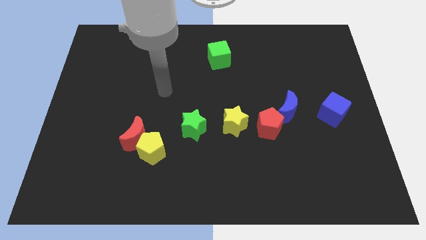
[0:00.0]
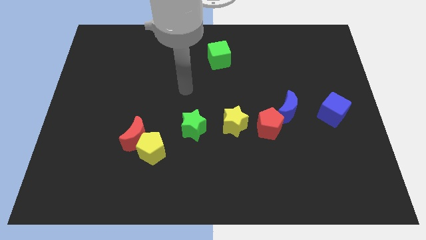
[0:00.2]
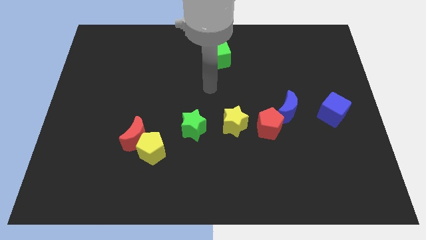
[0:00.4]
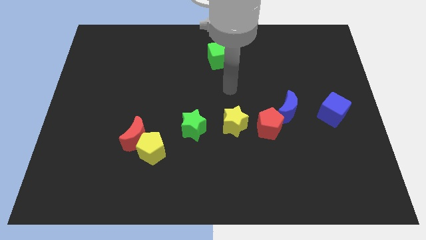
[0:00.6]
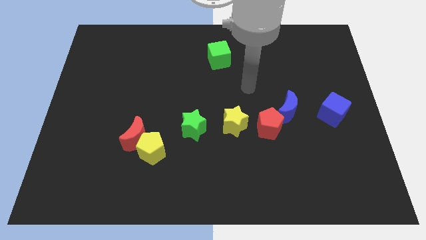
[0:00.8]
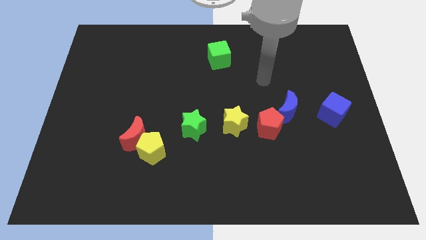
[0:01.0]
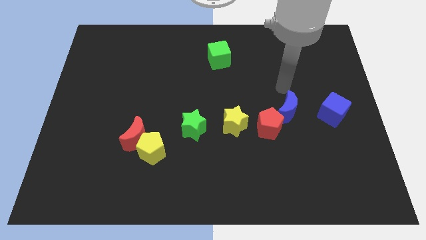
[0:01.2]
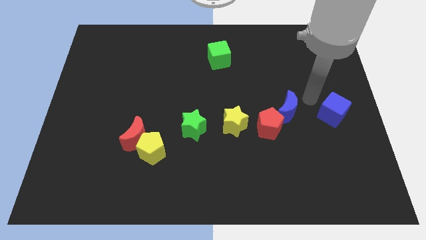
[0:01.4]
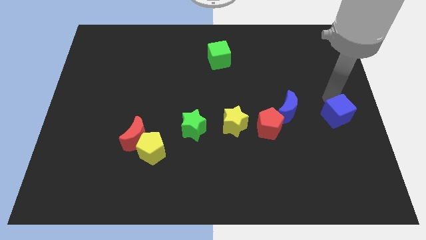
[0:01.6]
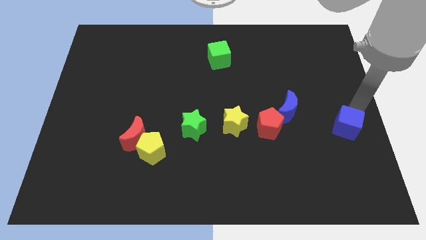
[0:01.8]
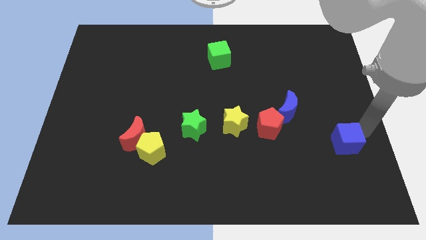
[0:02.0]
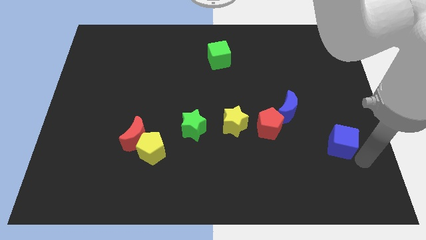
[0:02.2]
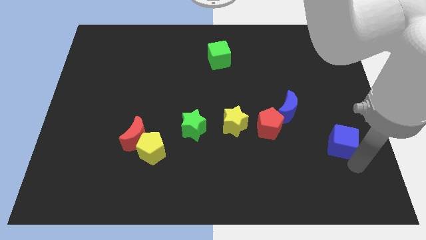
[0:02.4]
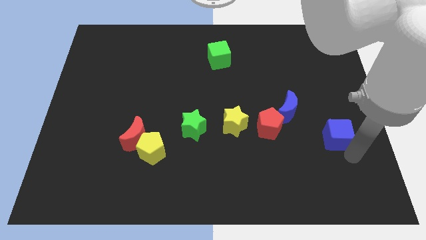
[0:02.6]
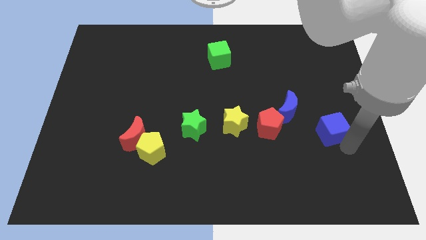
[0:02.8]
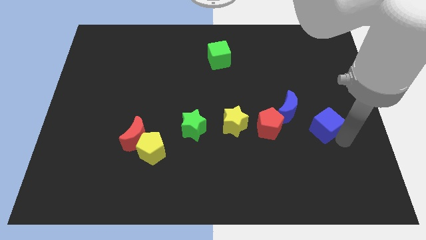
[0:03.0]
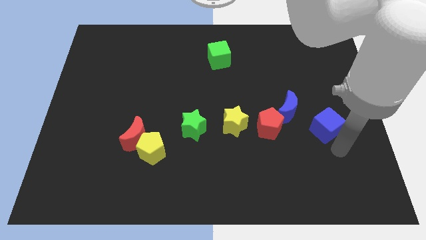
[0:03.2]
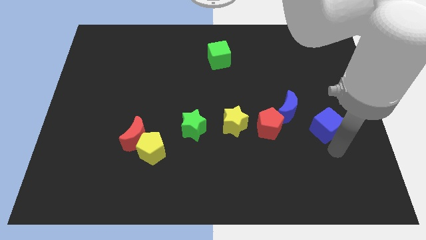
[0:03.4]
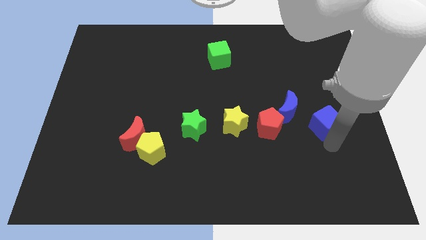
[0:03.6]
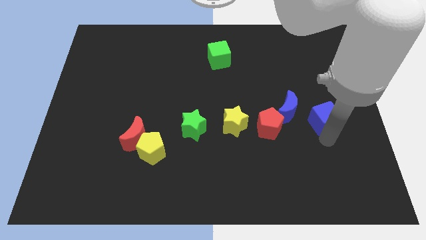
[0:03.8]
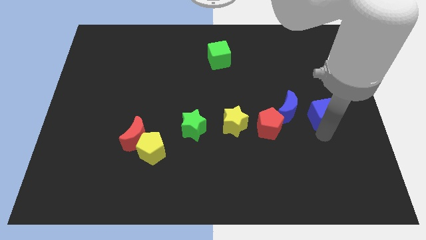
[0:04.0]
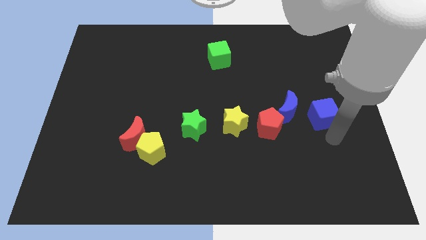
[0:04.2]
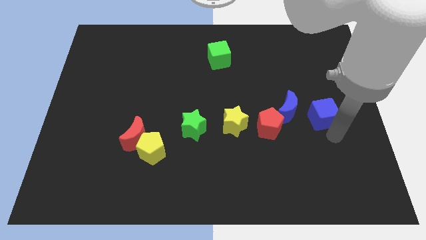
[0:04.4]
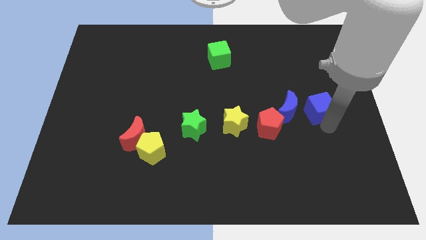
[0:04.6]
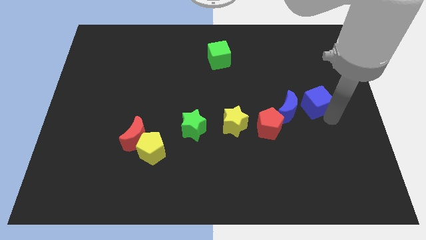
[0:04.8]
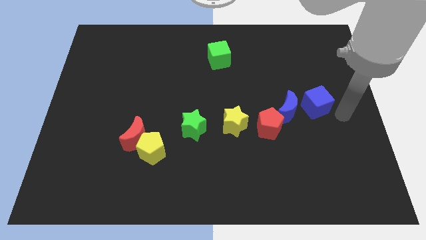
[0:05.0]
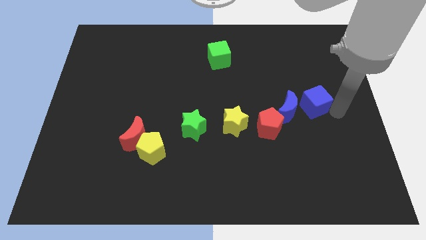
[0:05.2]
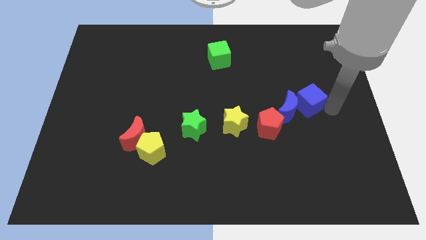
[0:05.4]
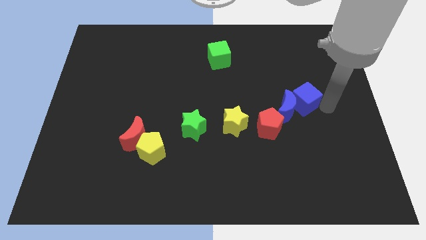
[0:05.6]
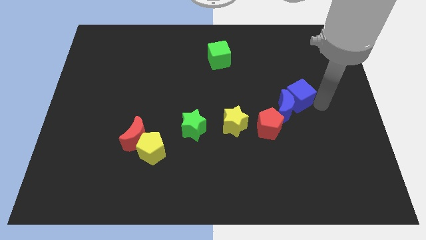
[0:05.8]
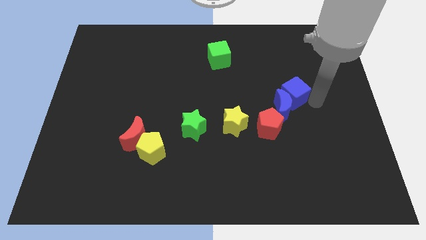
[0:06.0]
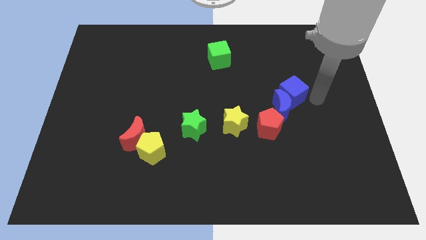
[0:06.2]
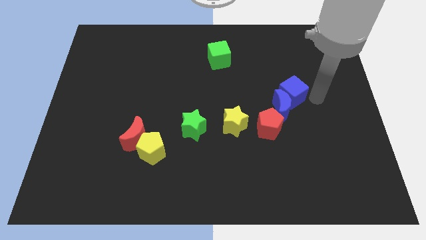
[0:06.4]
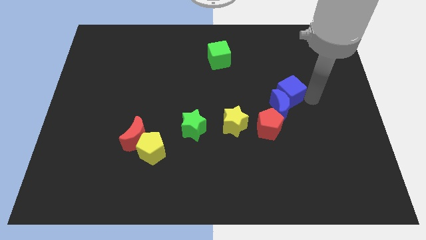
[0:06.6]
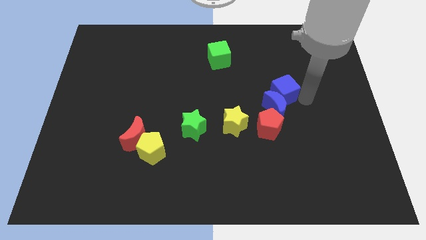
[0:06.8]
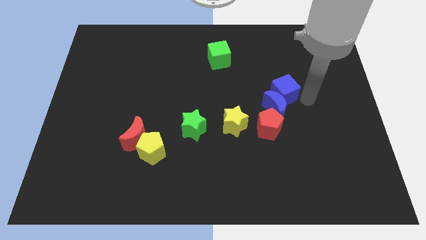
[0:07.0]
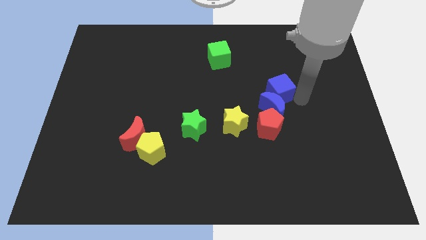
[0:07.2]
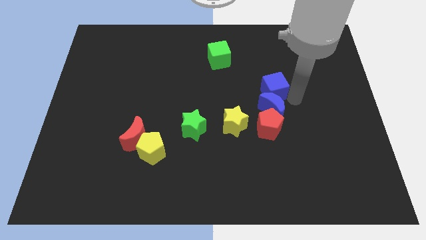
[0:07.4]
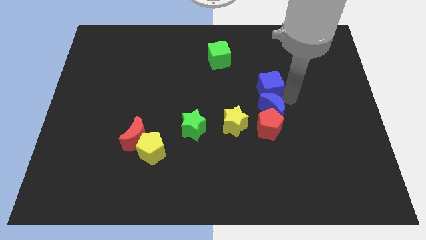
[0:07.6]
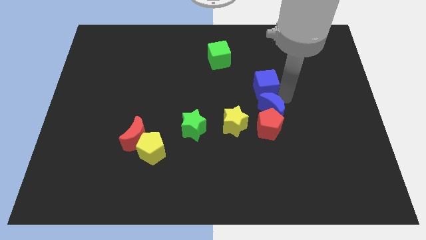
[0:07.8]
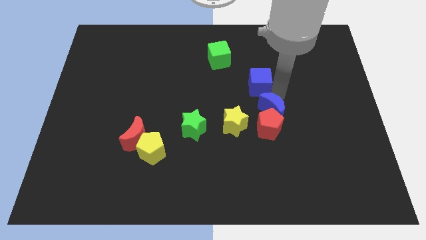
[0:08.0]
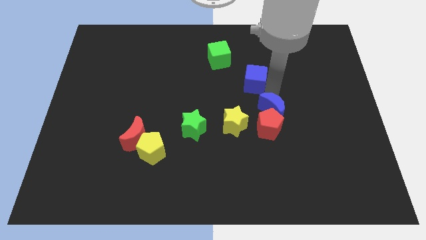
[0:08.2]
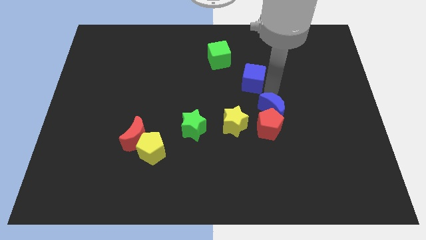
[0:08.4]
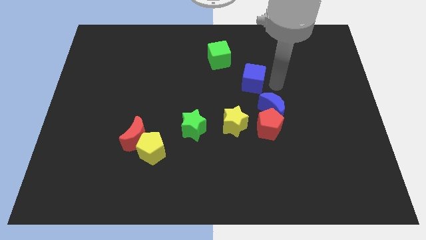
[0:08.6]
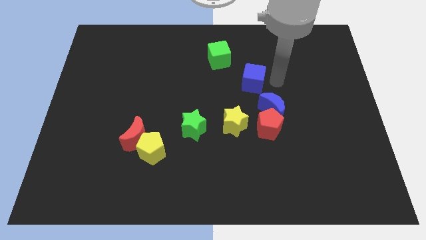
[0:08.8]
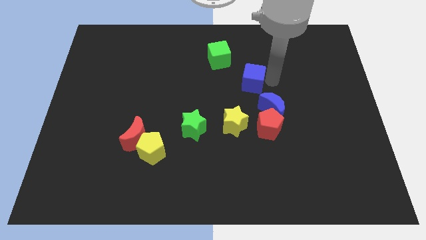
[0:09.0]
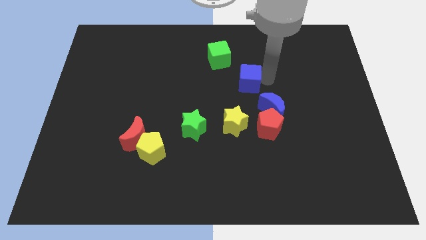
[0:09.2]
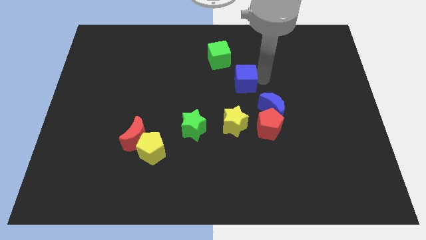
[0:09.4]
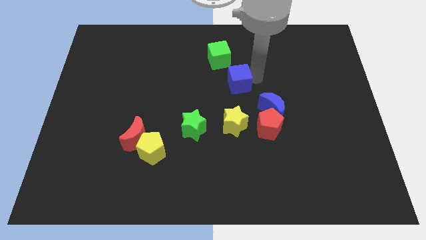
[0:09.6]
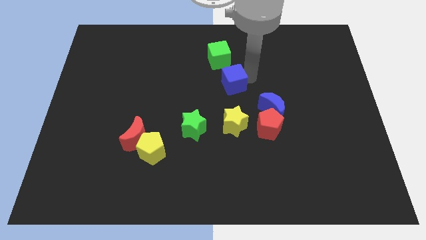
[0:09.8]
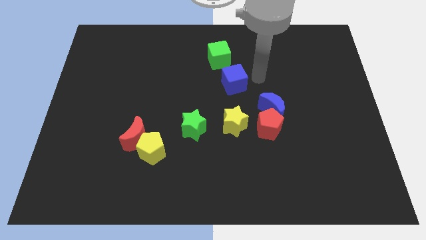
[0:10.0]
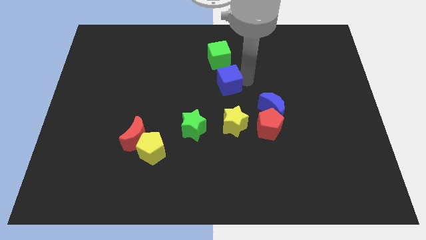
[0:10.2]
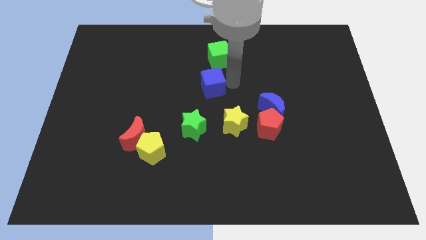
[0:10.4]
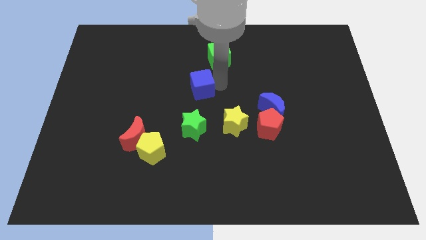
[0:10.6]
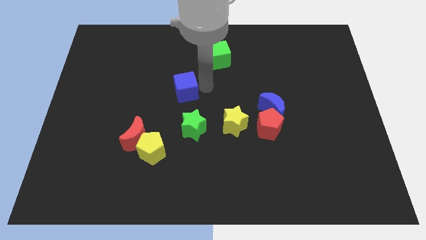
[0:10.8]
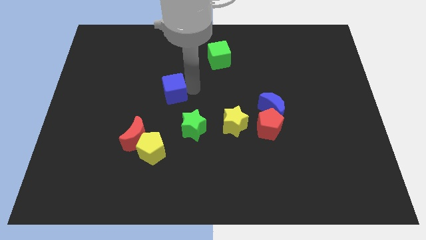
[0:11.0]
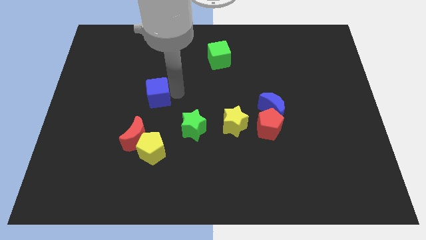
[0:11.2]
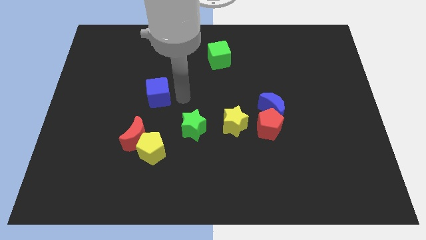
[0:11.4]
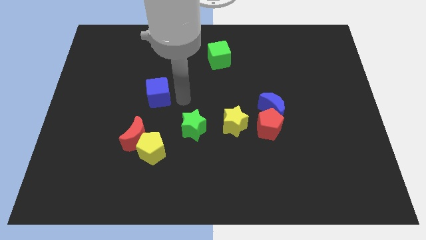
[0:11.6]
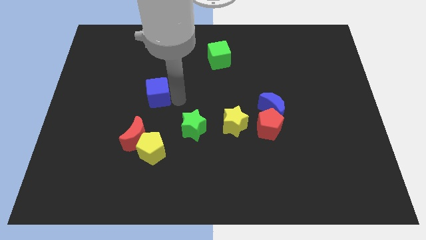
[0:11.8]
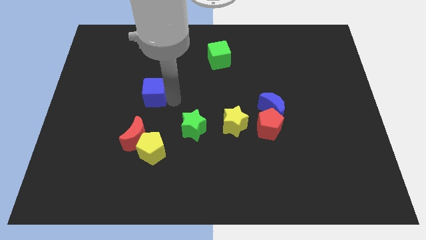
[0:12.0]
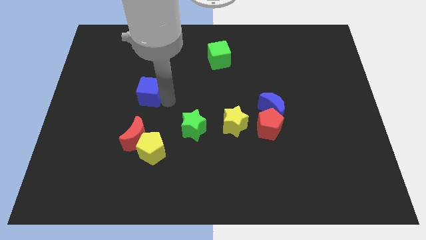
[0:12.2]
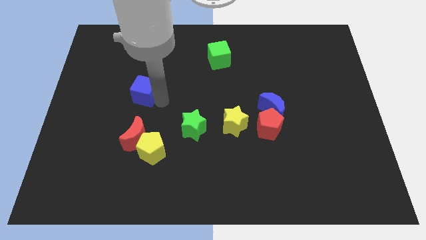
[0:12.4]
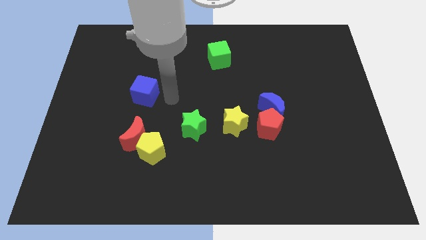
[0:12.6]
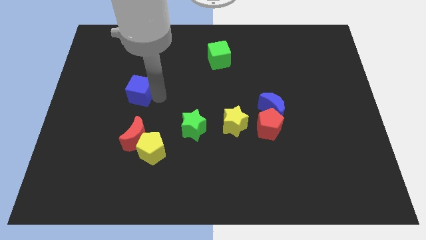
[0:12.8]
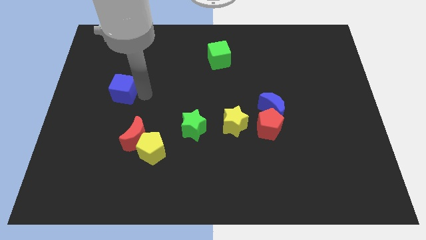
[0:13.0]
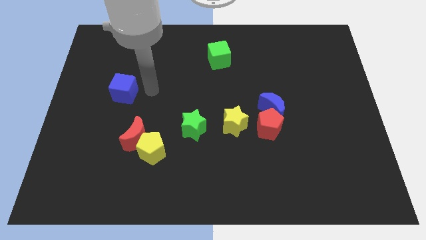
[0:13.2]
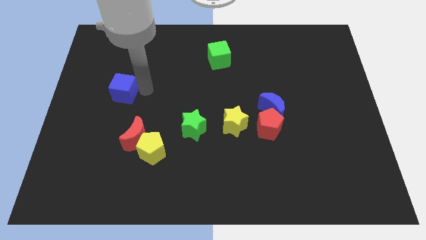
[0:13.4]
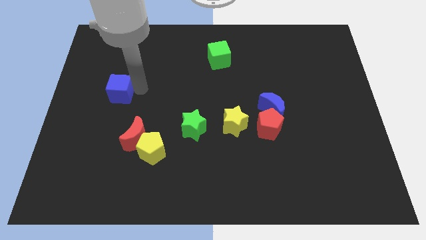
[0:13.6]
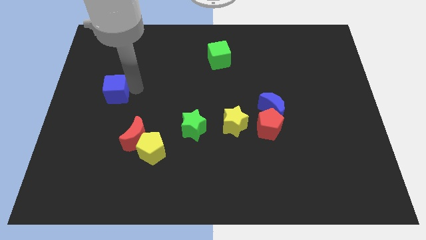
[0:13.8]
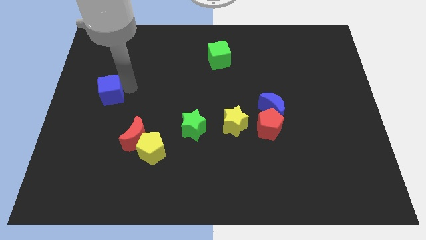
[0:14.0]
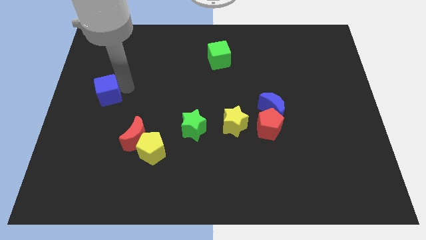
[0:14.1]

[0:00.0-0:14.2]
move the blue cube to the center left
